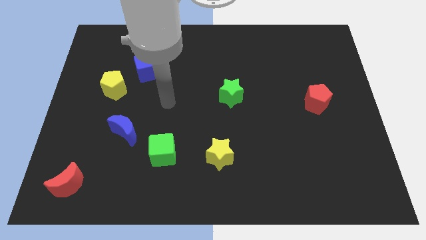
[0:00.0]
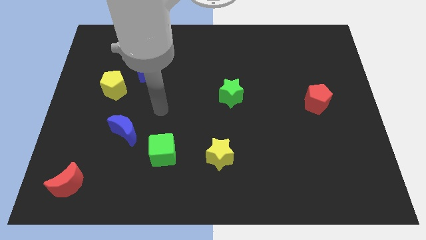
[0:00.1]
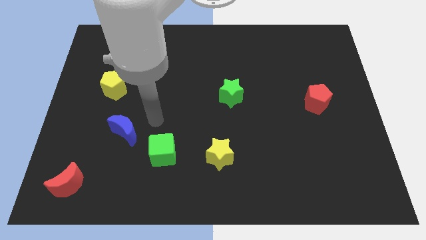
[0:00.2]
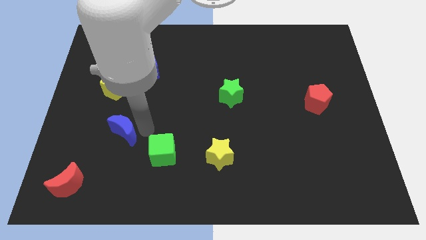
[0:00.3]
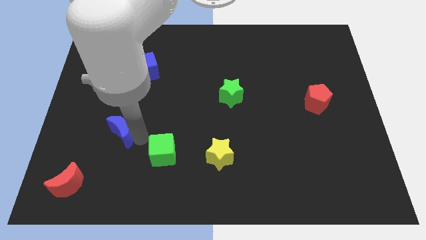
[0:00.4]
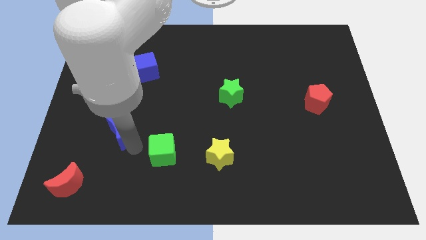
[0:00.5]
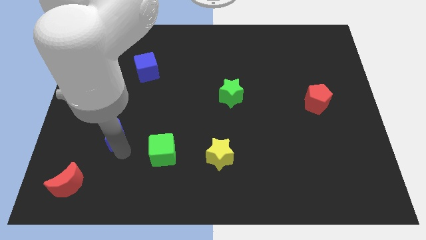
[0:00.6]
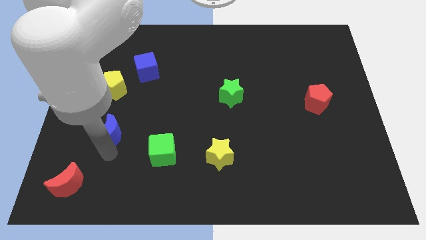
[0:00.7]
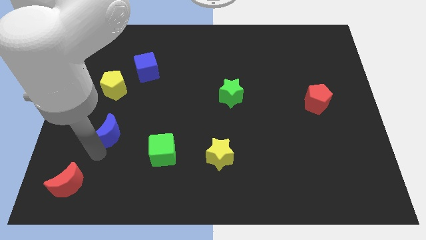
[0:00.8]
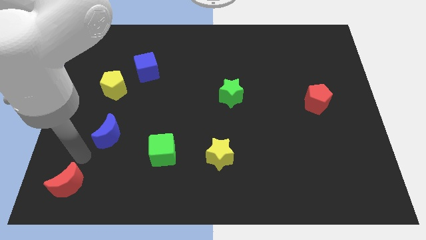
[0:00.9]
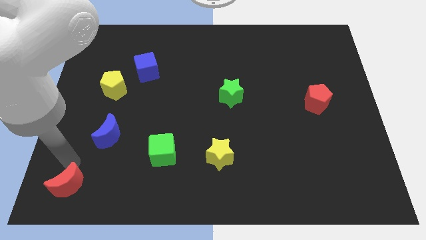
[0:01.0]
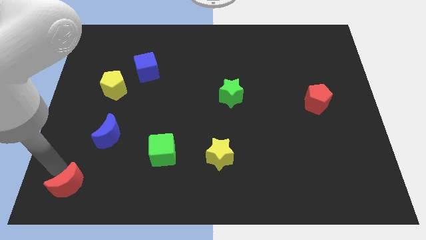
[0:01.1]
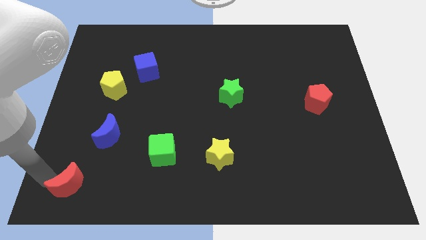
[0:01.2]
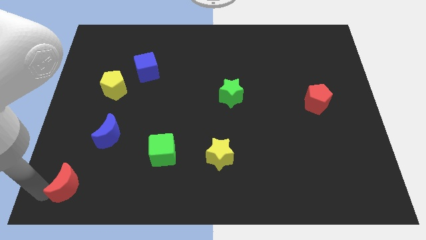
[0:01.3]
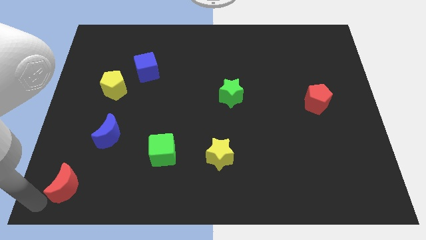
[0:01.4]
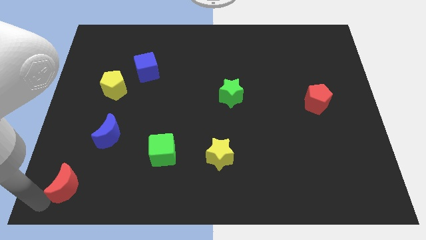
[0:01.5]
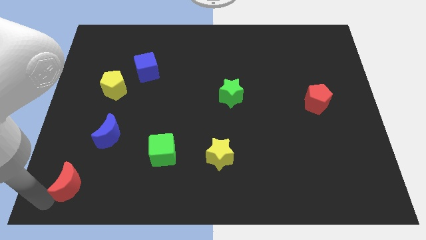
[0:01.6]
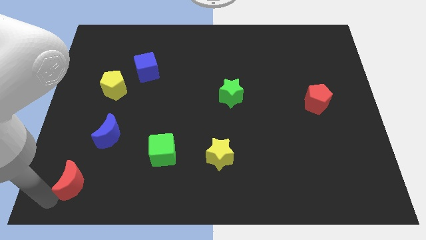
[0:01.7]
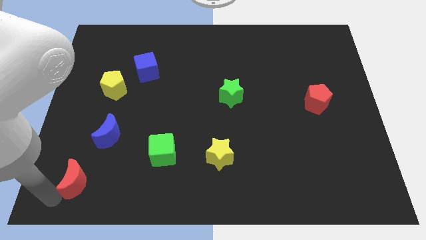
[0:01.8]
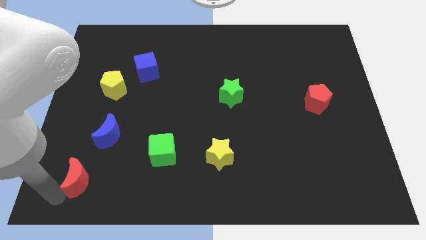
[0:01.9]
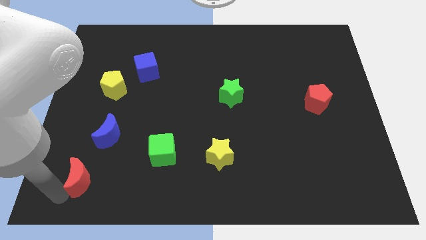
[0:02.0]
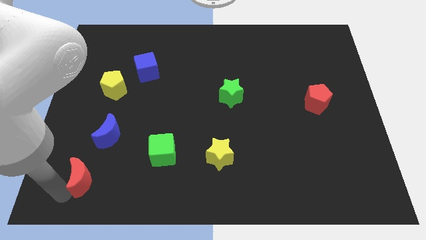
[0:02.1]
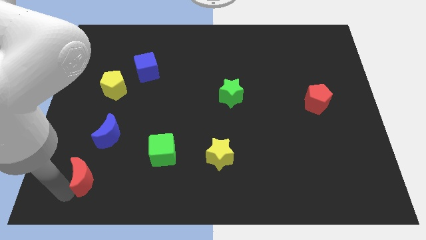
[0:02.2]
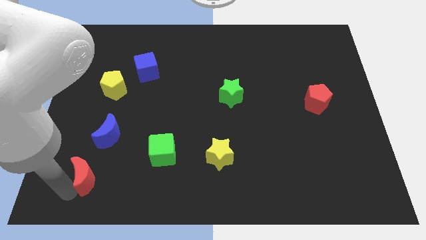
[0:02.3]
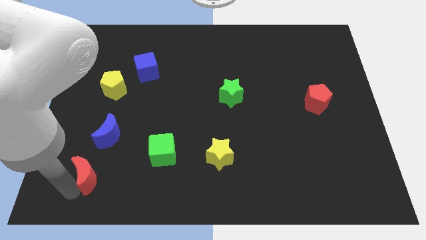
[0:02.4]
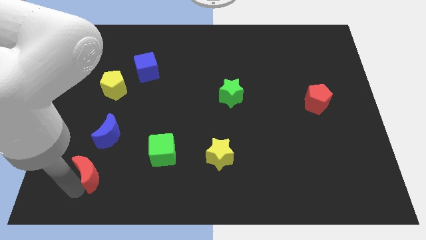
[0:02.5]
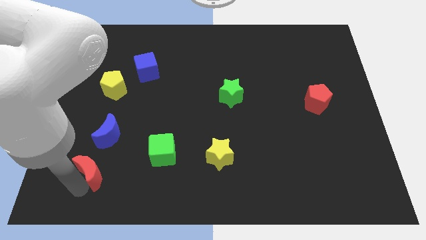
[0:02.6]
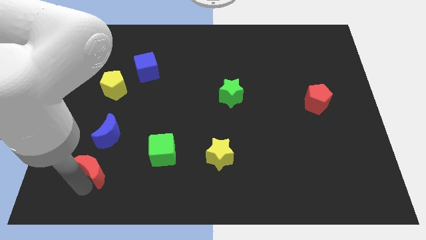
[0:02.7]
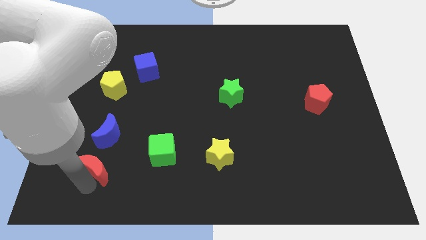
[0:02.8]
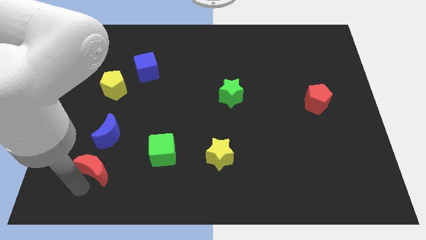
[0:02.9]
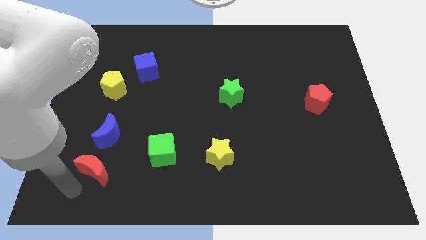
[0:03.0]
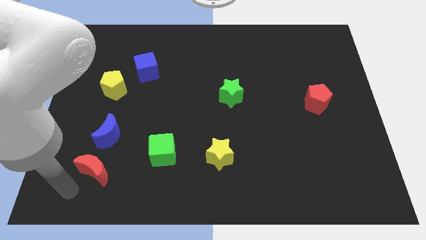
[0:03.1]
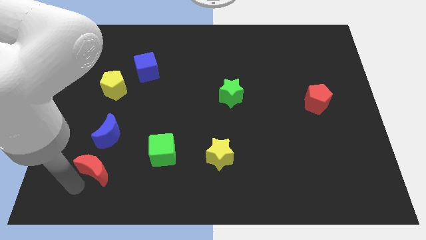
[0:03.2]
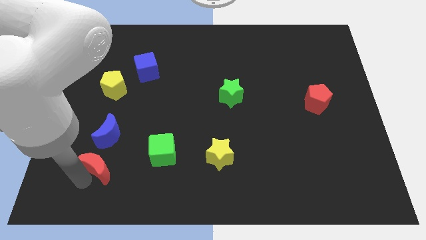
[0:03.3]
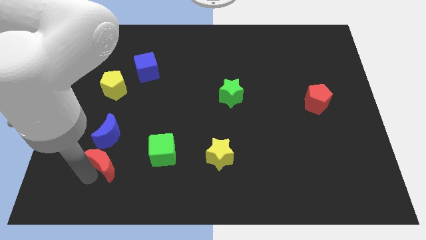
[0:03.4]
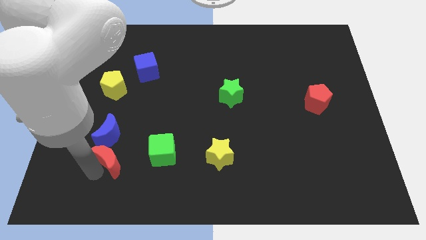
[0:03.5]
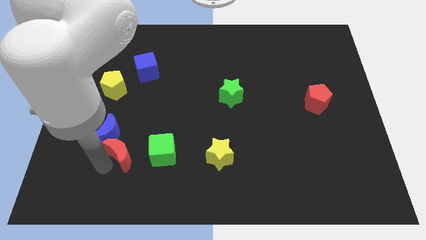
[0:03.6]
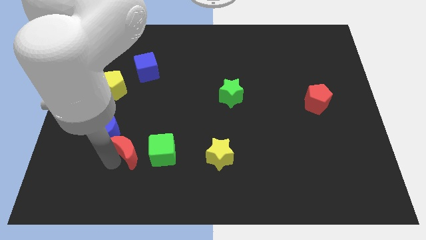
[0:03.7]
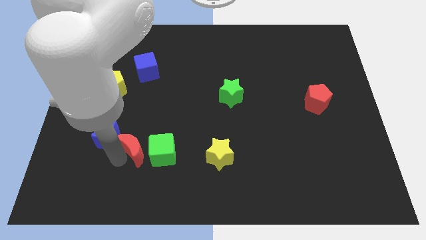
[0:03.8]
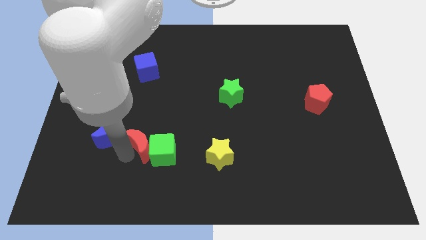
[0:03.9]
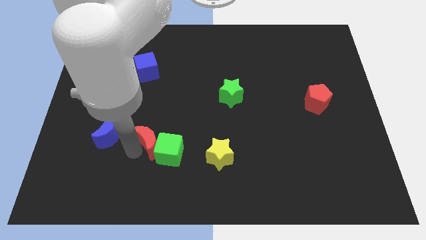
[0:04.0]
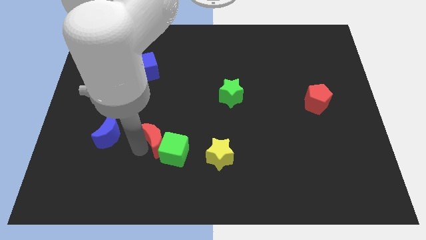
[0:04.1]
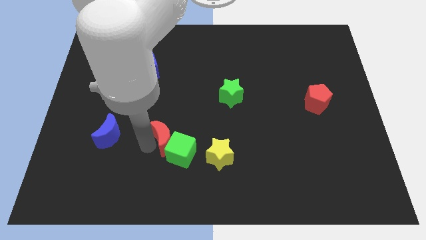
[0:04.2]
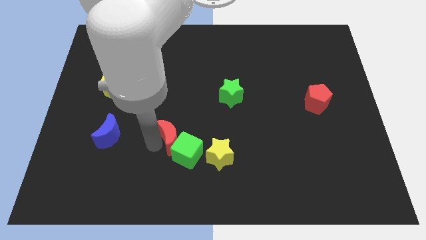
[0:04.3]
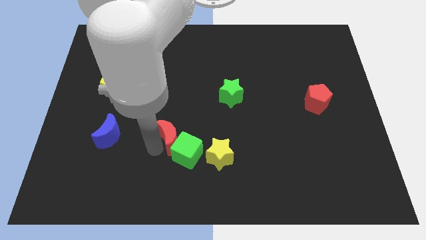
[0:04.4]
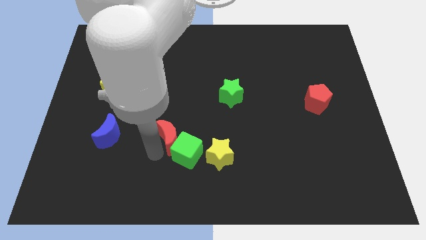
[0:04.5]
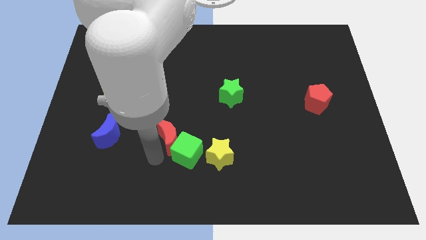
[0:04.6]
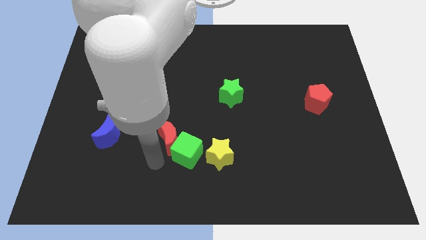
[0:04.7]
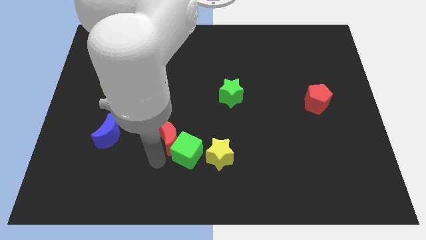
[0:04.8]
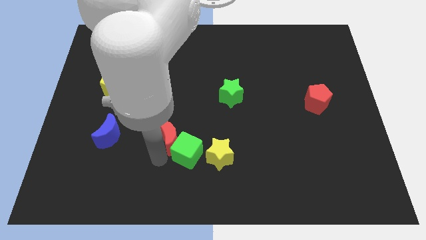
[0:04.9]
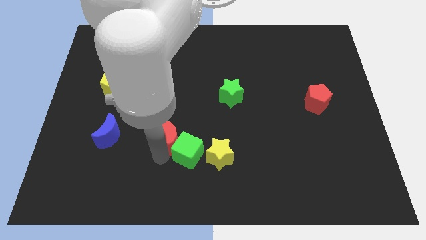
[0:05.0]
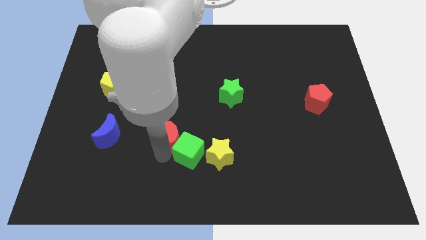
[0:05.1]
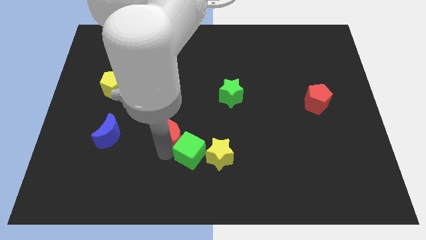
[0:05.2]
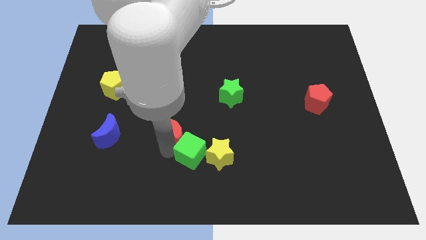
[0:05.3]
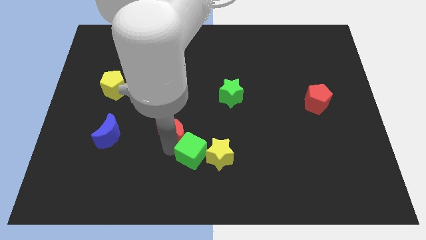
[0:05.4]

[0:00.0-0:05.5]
move the red moon to the center

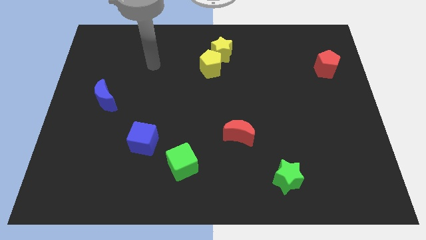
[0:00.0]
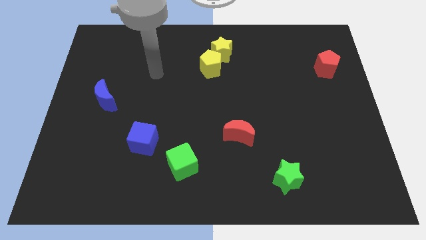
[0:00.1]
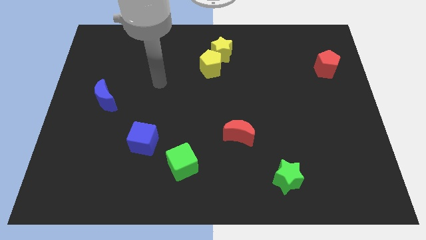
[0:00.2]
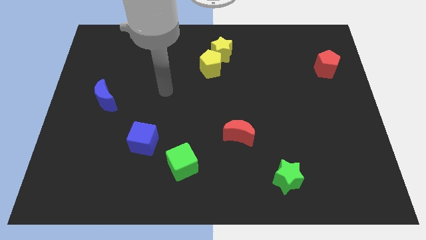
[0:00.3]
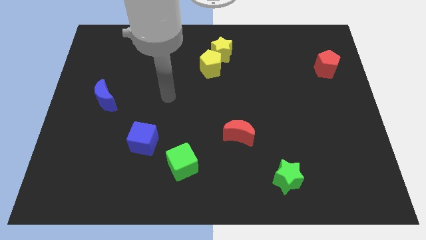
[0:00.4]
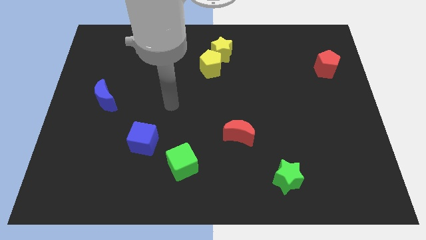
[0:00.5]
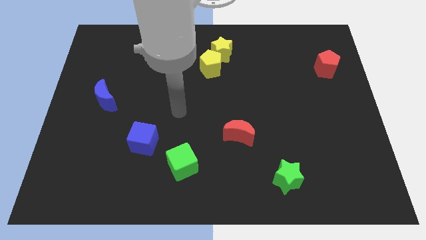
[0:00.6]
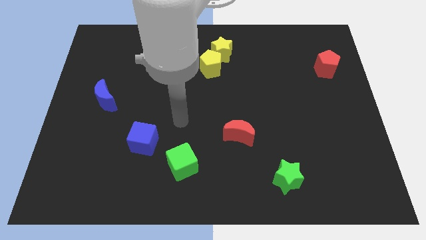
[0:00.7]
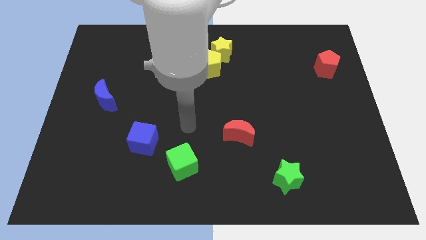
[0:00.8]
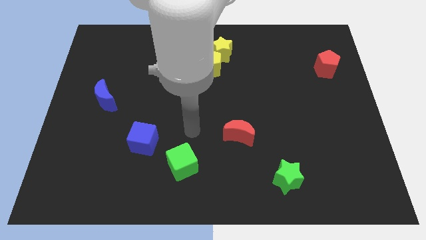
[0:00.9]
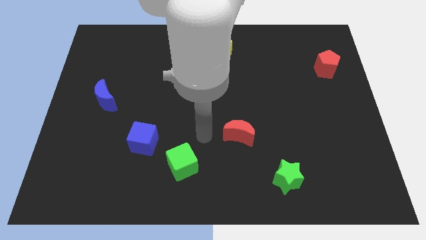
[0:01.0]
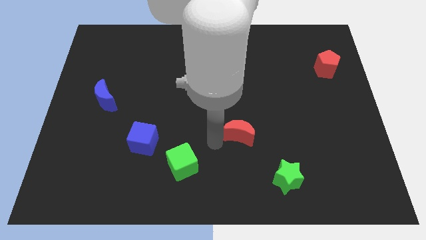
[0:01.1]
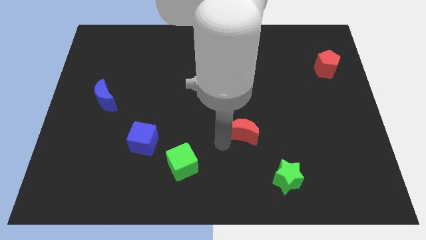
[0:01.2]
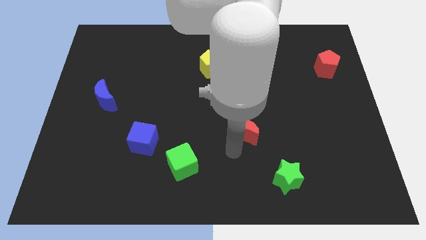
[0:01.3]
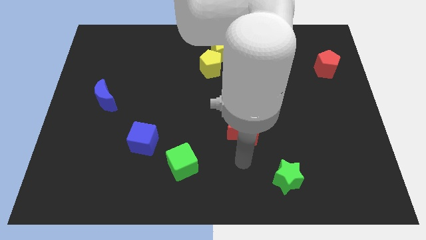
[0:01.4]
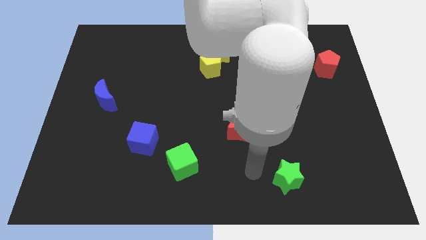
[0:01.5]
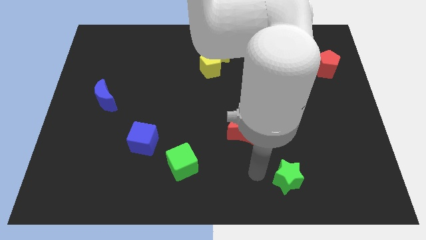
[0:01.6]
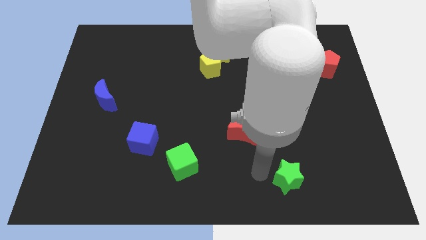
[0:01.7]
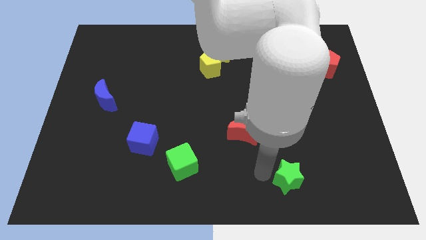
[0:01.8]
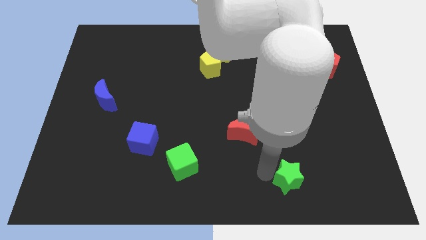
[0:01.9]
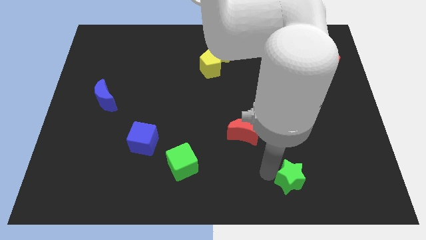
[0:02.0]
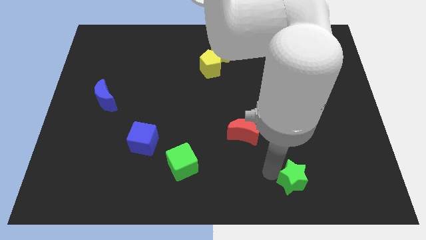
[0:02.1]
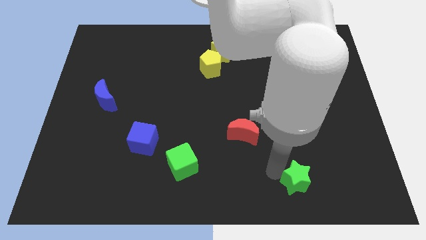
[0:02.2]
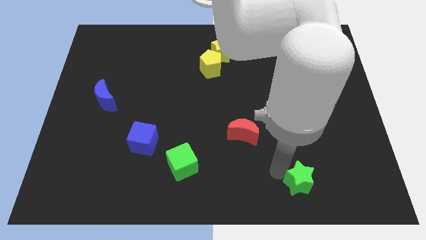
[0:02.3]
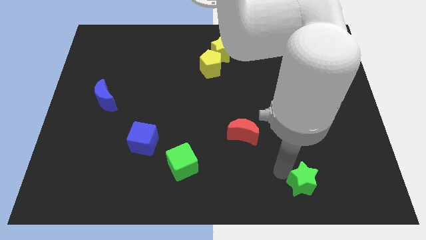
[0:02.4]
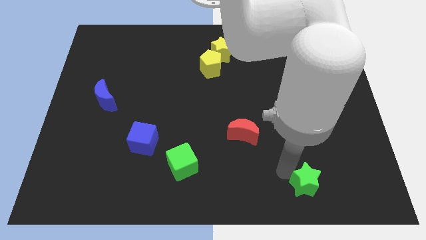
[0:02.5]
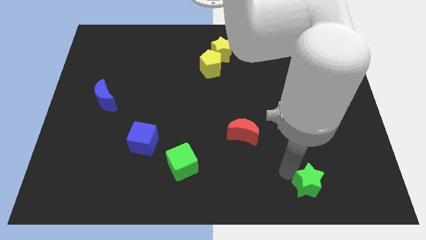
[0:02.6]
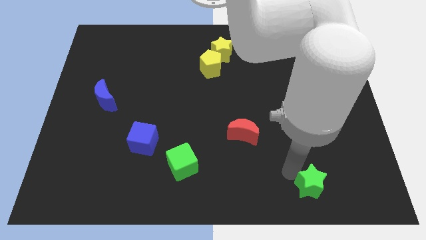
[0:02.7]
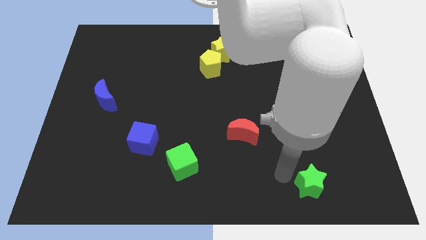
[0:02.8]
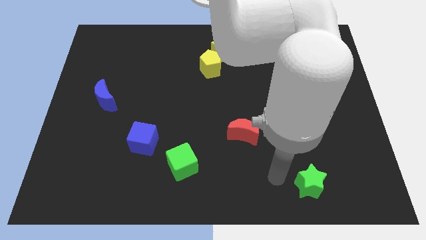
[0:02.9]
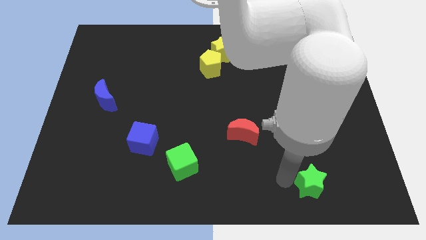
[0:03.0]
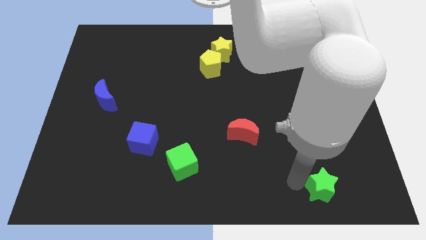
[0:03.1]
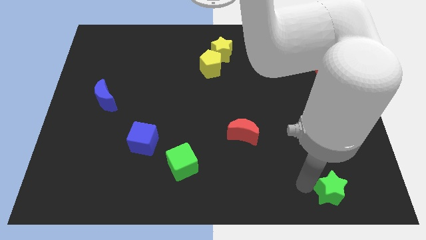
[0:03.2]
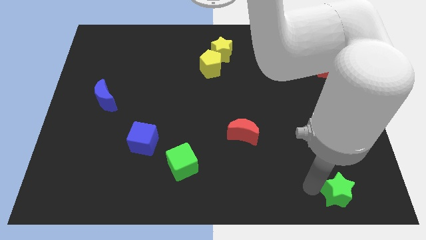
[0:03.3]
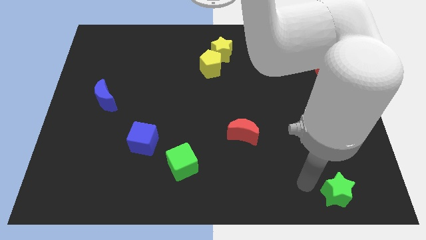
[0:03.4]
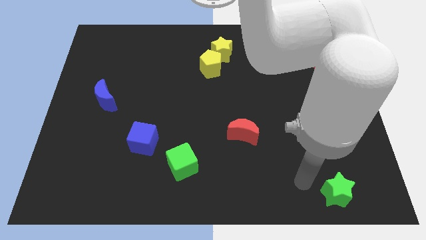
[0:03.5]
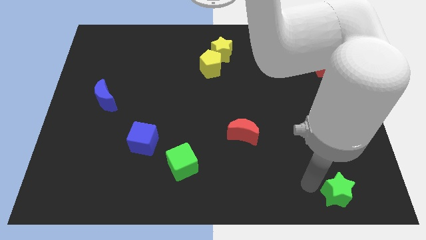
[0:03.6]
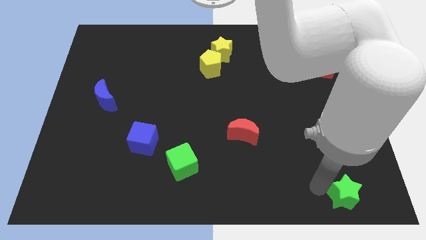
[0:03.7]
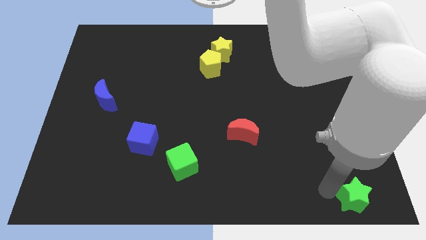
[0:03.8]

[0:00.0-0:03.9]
push the green star to the bottom right corner
